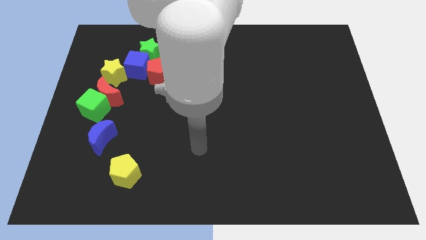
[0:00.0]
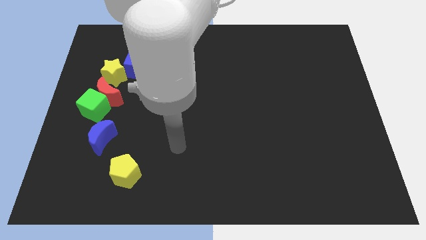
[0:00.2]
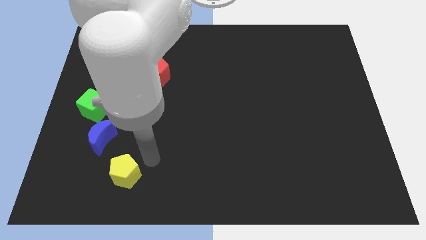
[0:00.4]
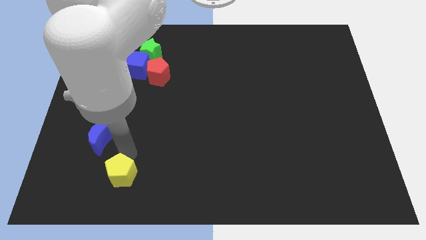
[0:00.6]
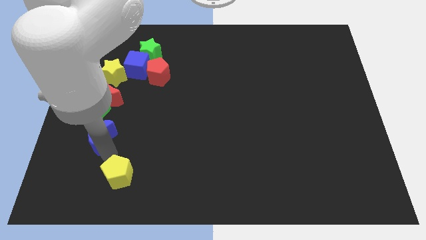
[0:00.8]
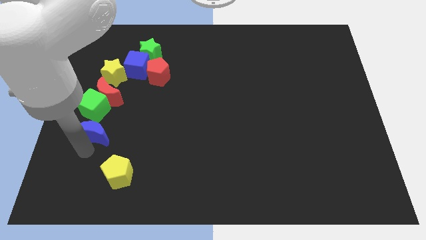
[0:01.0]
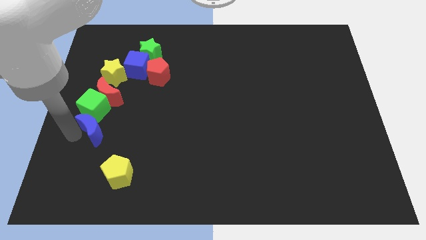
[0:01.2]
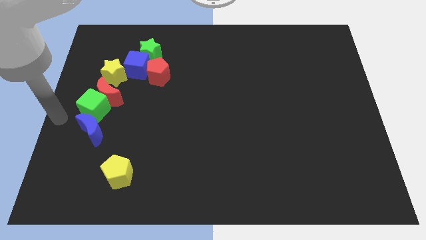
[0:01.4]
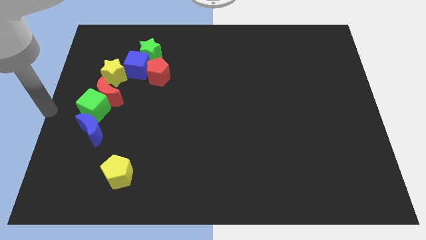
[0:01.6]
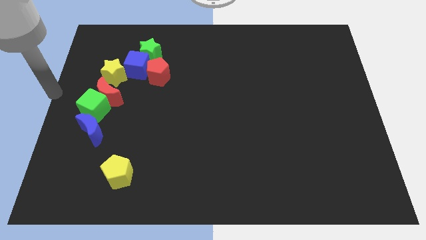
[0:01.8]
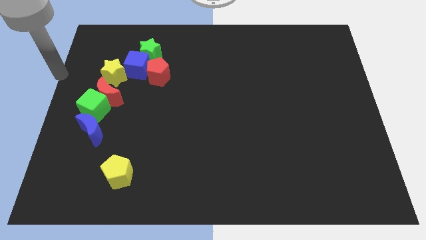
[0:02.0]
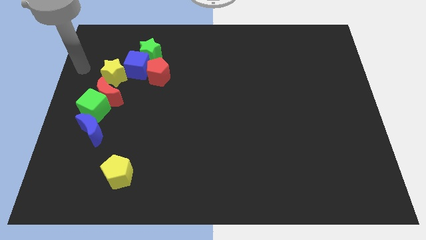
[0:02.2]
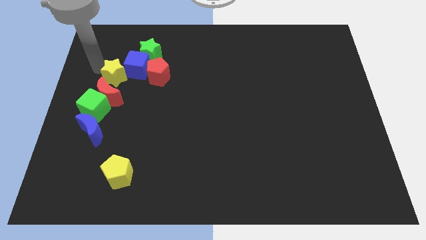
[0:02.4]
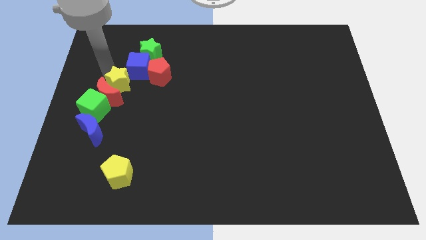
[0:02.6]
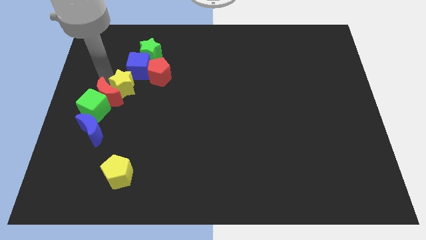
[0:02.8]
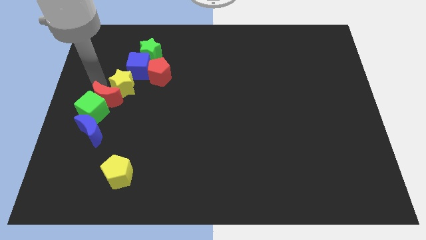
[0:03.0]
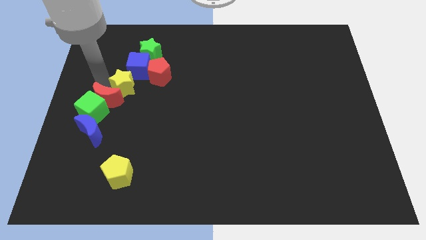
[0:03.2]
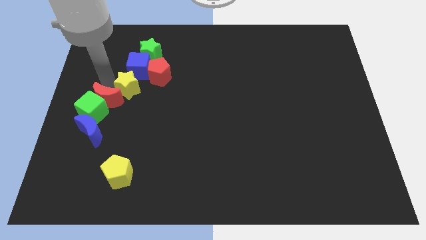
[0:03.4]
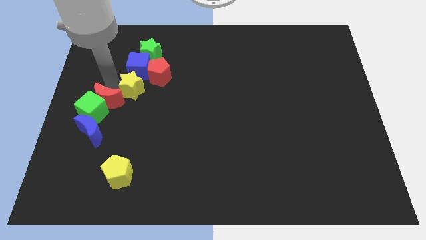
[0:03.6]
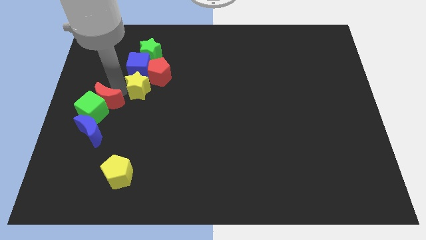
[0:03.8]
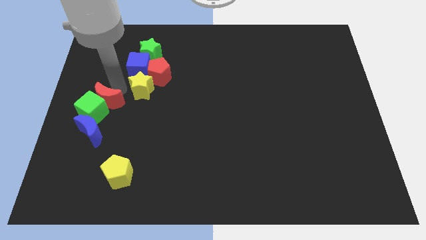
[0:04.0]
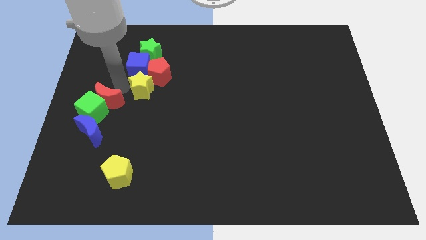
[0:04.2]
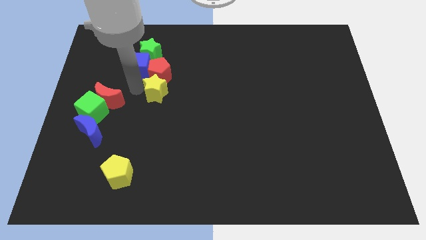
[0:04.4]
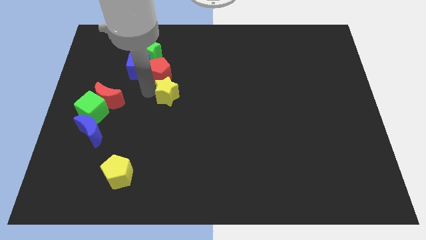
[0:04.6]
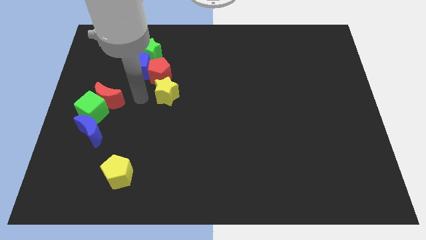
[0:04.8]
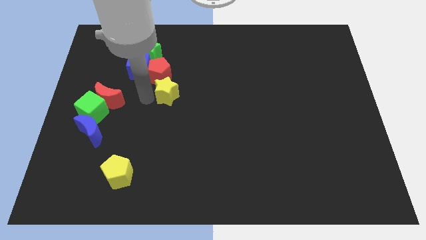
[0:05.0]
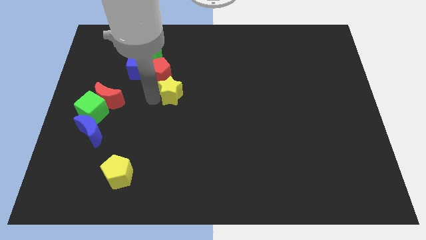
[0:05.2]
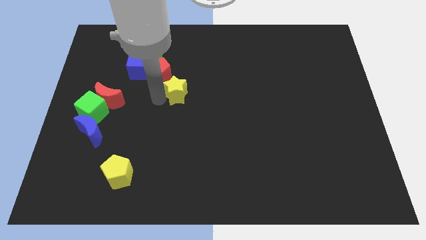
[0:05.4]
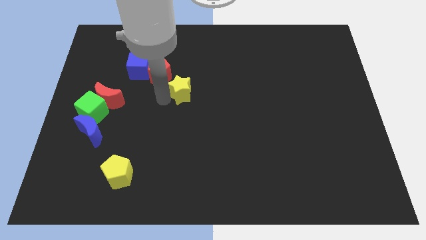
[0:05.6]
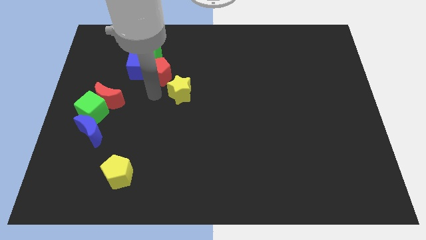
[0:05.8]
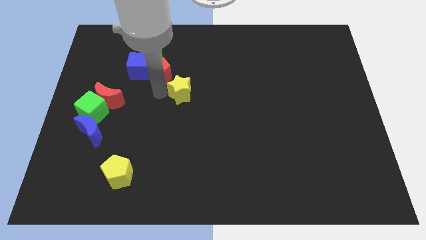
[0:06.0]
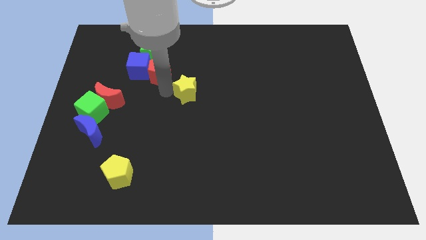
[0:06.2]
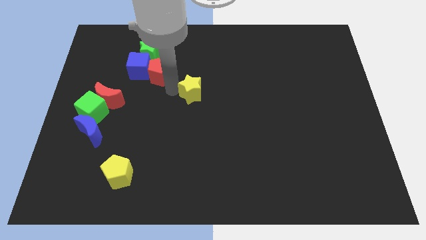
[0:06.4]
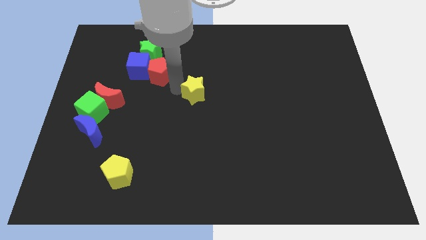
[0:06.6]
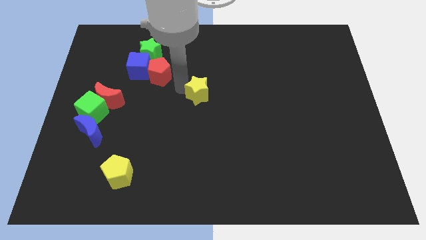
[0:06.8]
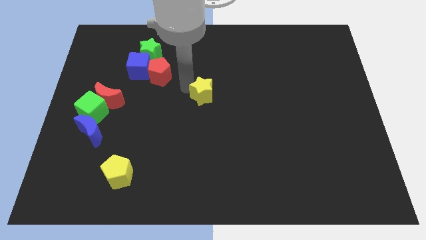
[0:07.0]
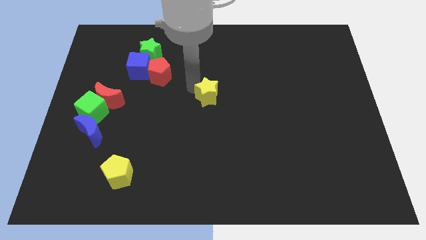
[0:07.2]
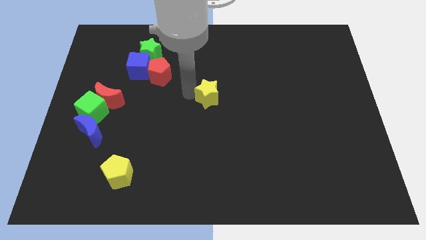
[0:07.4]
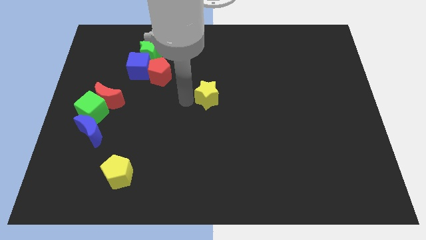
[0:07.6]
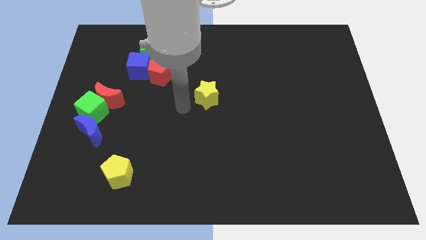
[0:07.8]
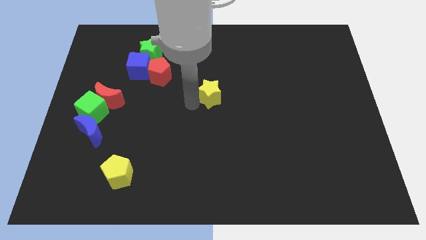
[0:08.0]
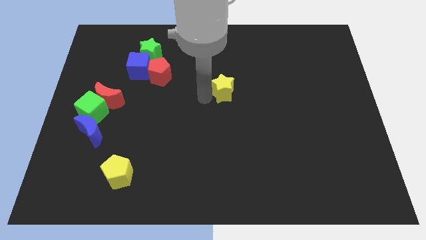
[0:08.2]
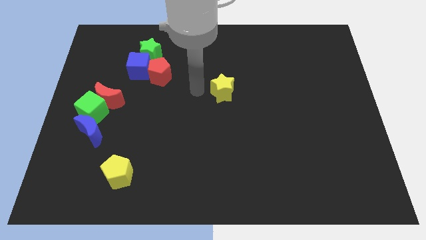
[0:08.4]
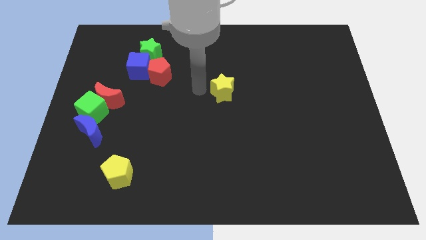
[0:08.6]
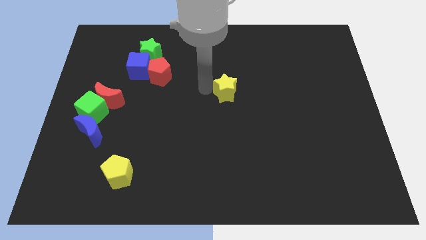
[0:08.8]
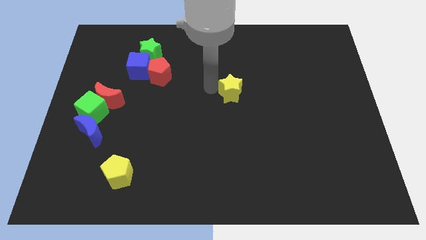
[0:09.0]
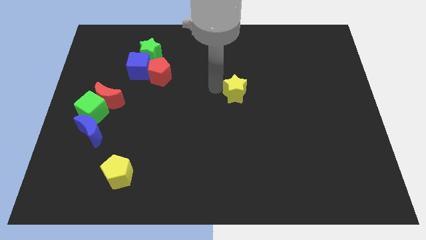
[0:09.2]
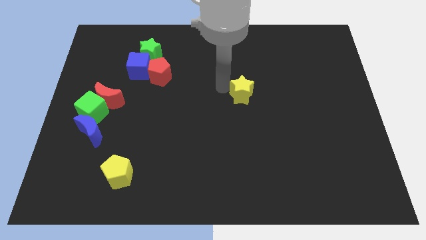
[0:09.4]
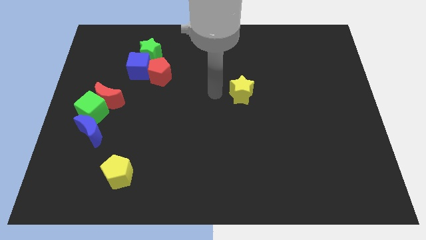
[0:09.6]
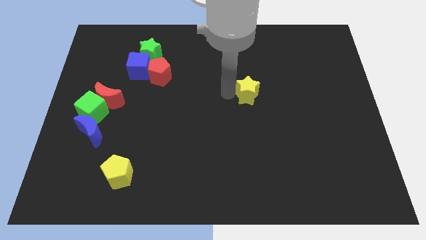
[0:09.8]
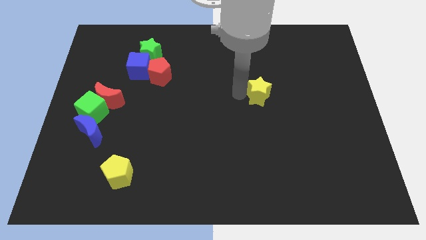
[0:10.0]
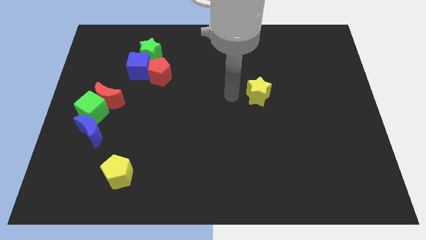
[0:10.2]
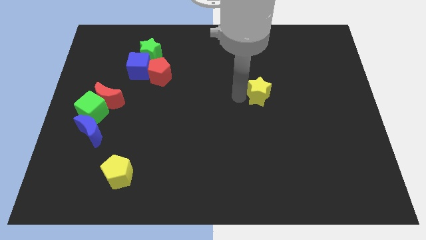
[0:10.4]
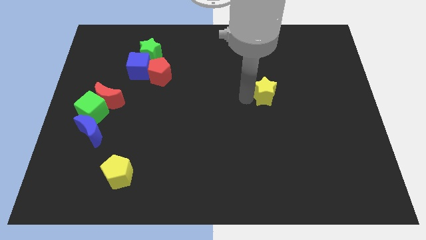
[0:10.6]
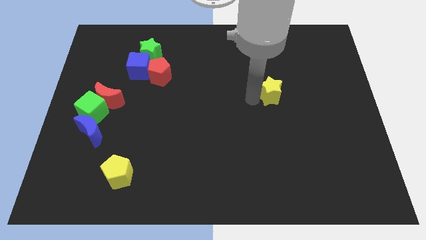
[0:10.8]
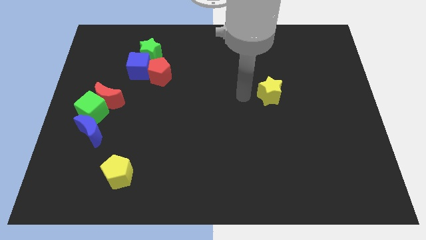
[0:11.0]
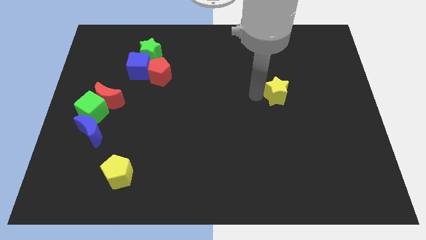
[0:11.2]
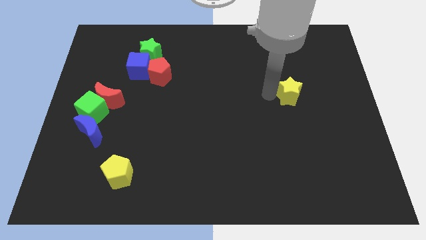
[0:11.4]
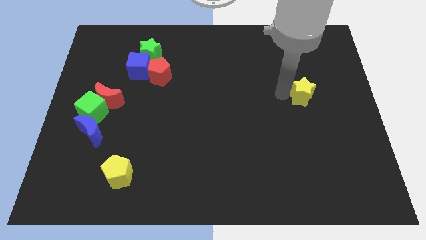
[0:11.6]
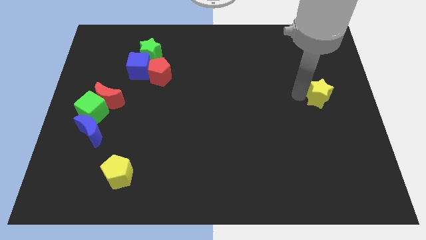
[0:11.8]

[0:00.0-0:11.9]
put the yellow star to the right side of the board
